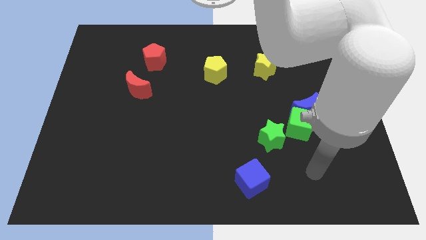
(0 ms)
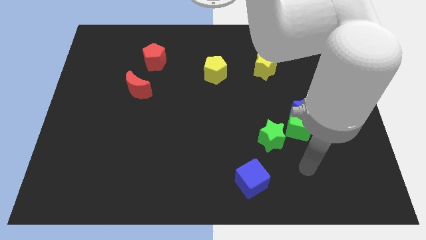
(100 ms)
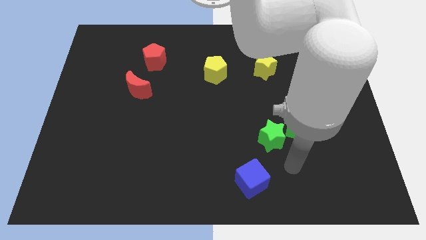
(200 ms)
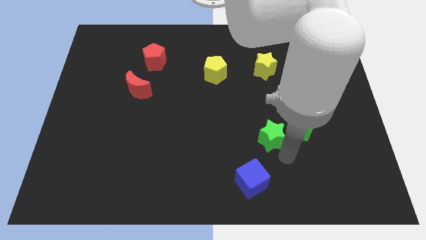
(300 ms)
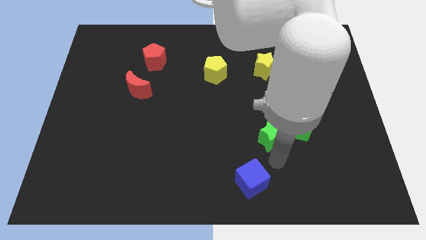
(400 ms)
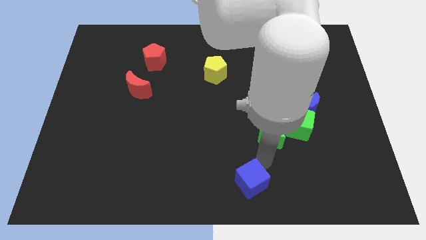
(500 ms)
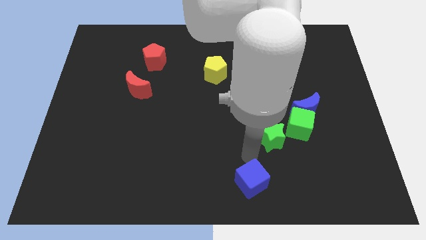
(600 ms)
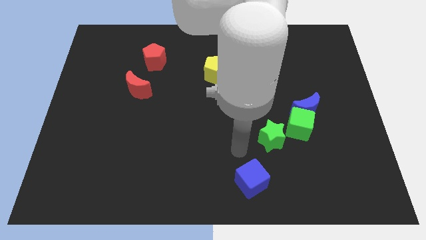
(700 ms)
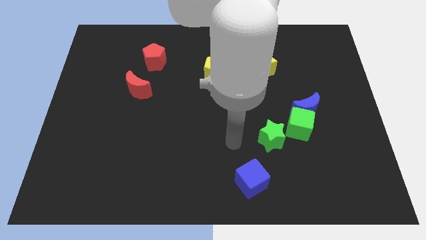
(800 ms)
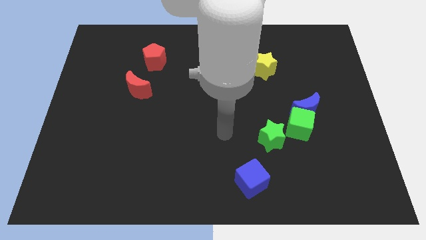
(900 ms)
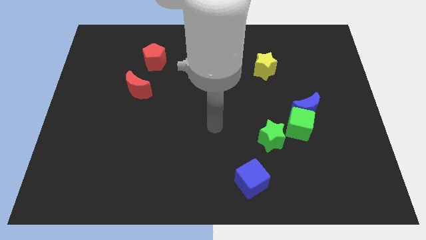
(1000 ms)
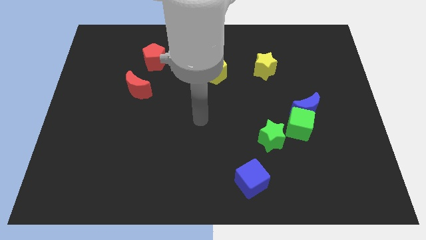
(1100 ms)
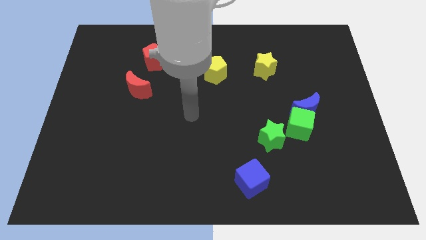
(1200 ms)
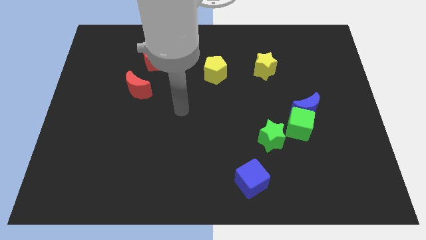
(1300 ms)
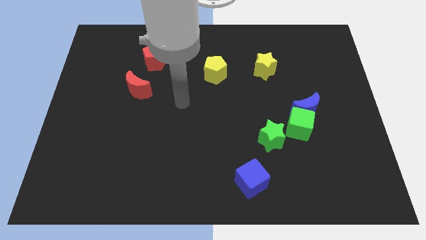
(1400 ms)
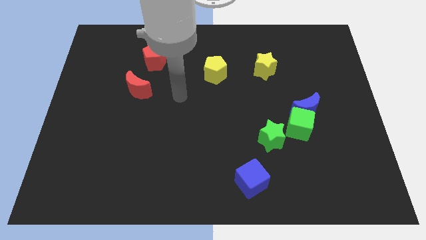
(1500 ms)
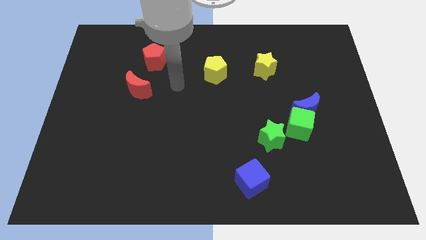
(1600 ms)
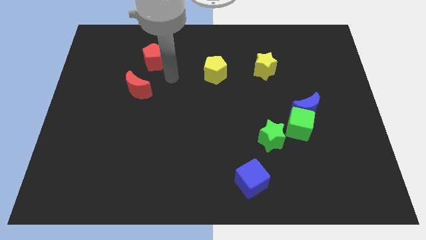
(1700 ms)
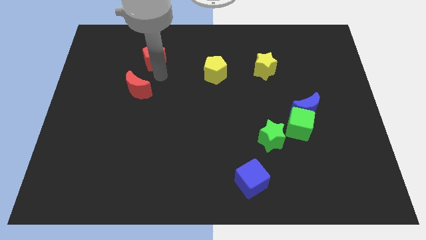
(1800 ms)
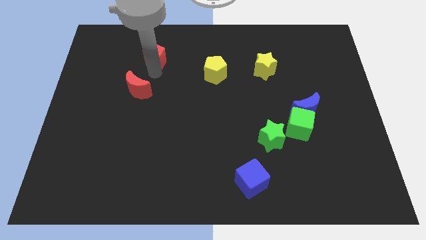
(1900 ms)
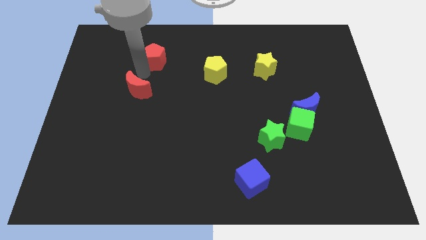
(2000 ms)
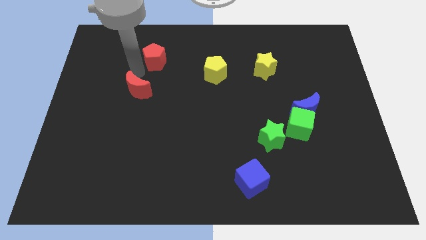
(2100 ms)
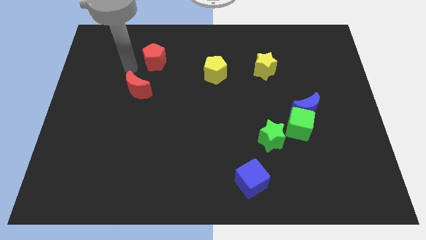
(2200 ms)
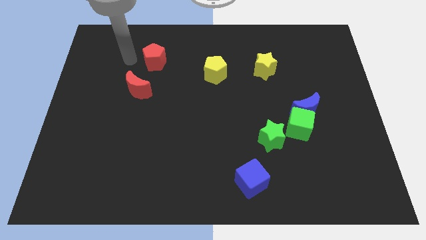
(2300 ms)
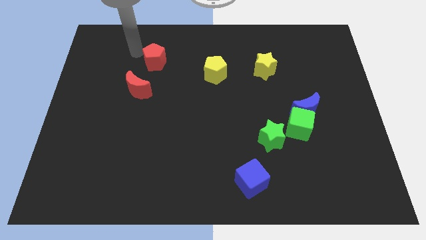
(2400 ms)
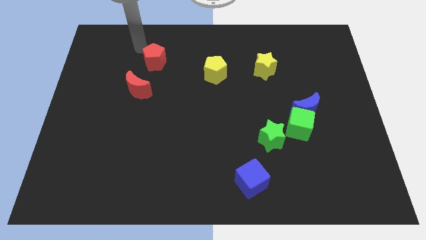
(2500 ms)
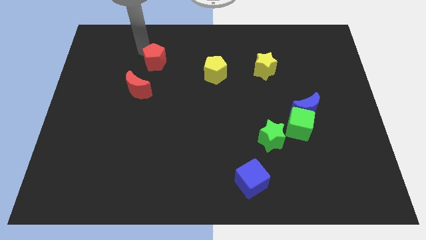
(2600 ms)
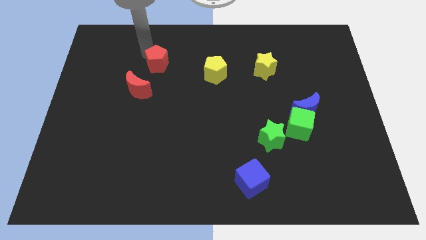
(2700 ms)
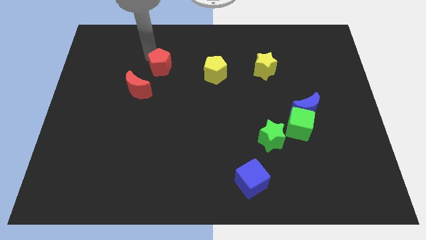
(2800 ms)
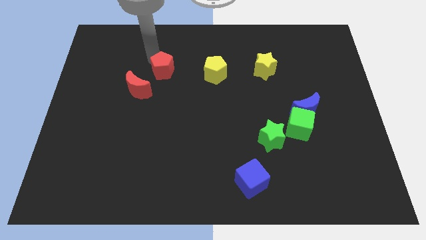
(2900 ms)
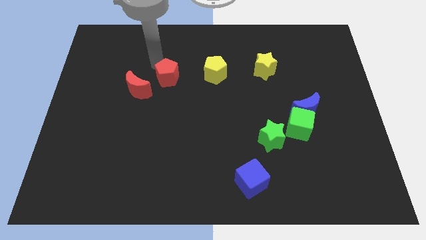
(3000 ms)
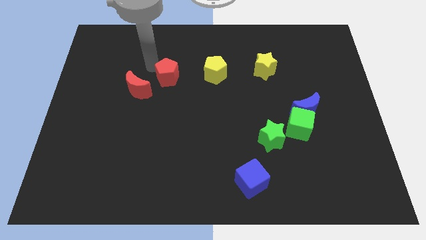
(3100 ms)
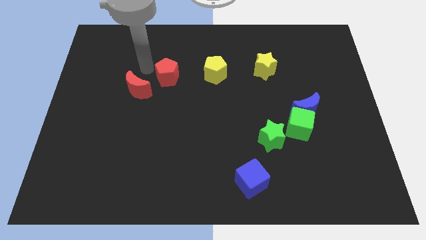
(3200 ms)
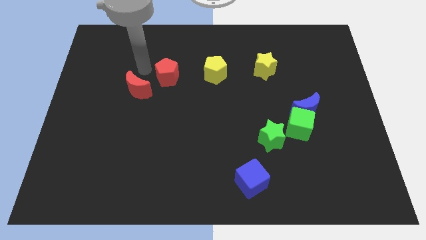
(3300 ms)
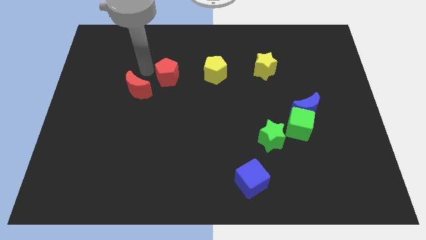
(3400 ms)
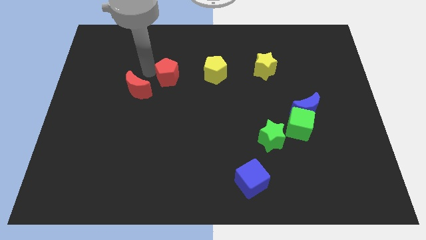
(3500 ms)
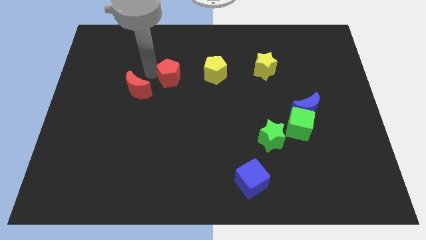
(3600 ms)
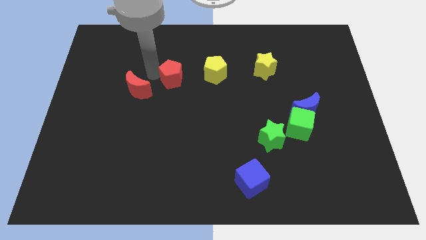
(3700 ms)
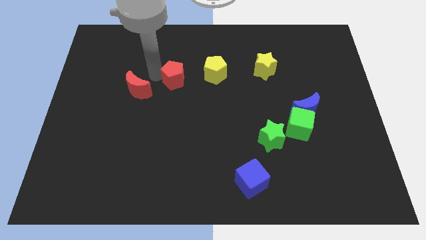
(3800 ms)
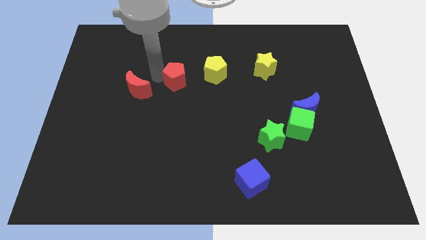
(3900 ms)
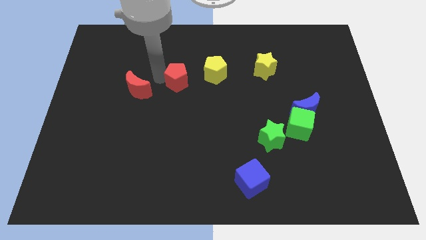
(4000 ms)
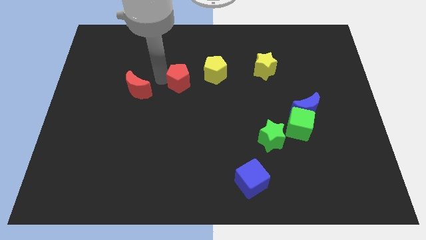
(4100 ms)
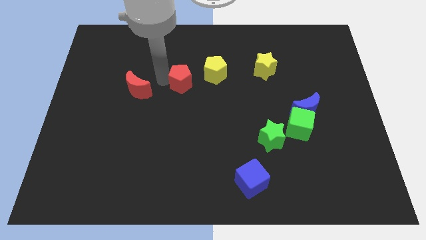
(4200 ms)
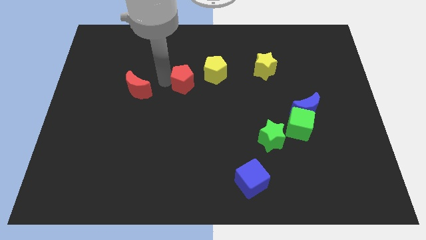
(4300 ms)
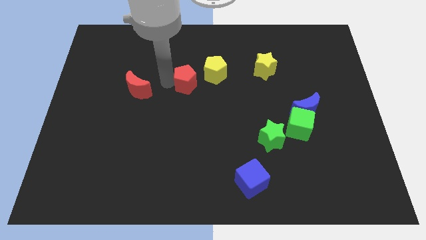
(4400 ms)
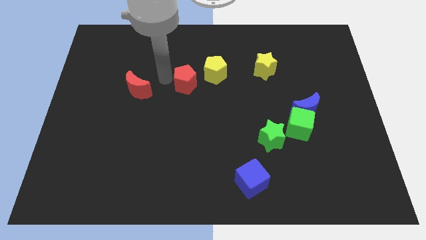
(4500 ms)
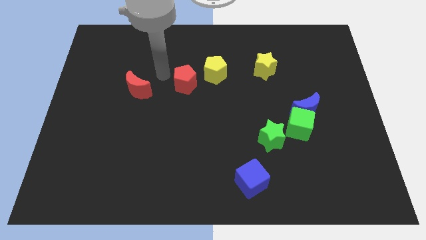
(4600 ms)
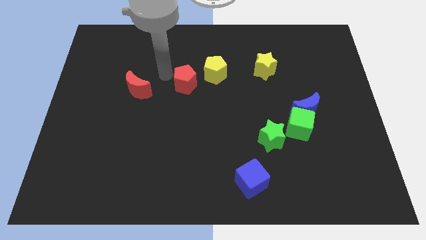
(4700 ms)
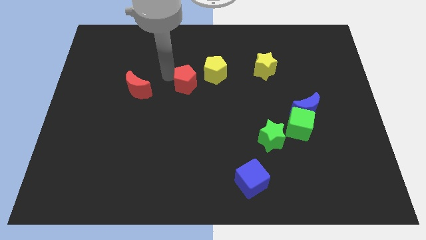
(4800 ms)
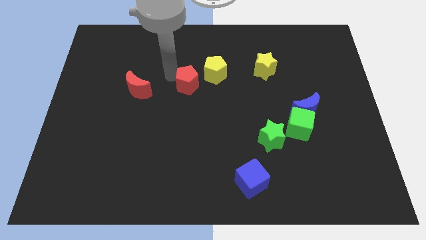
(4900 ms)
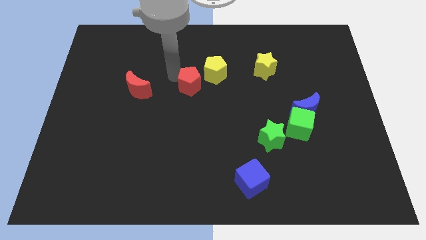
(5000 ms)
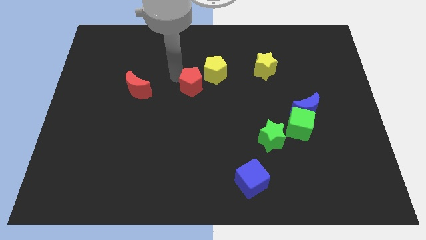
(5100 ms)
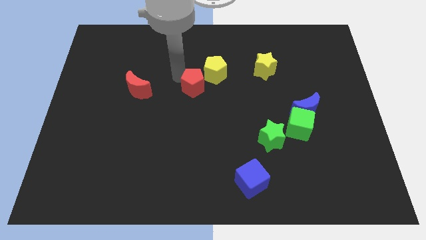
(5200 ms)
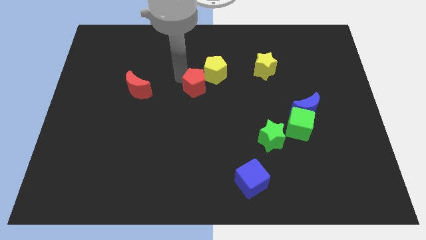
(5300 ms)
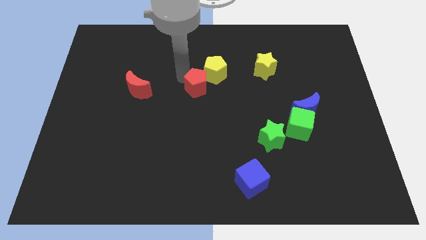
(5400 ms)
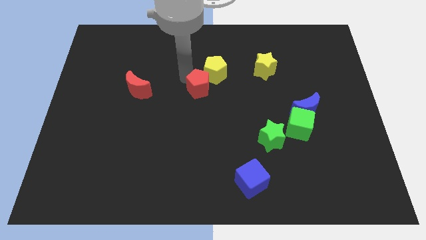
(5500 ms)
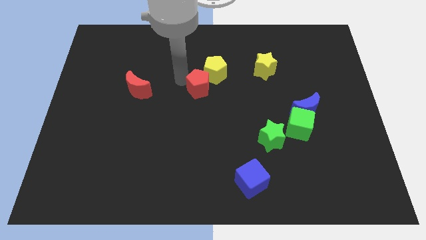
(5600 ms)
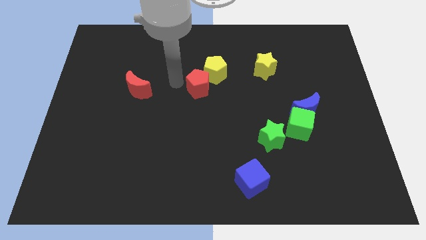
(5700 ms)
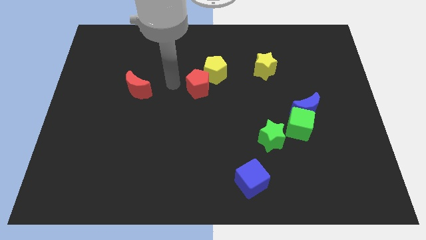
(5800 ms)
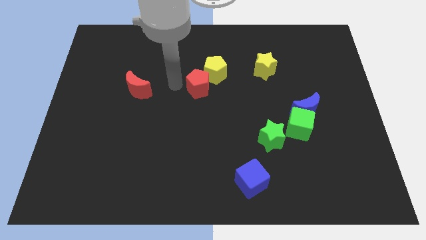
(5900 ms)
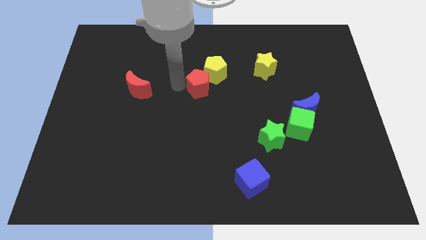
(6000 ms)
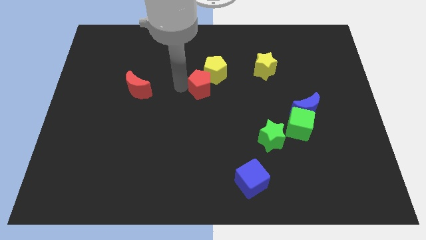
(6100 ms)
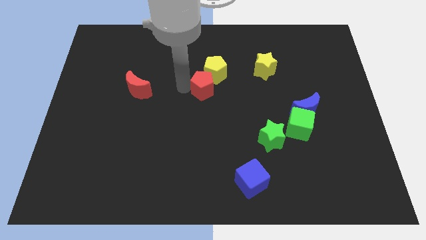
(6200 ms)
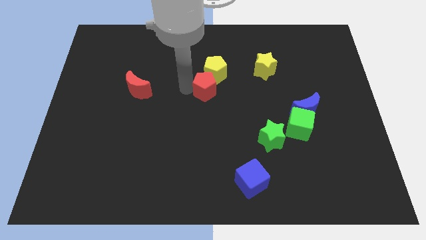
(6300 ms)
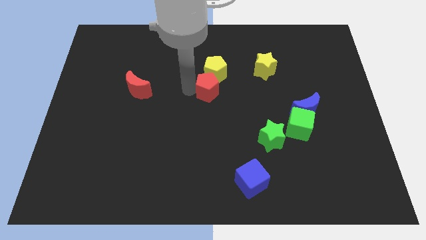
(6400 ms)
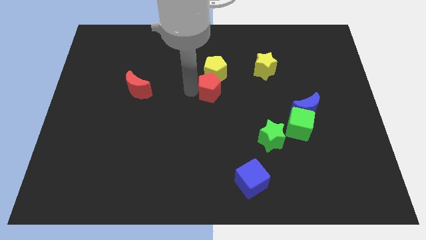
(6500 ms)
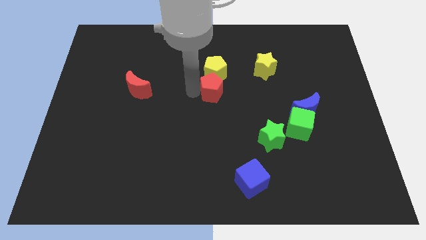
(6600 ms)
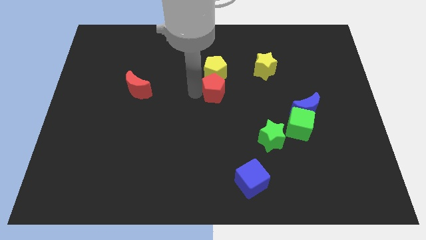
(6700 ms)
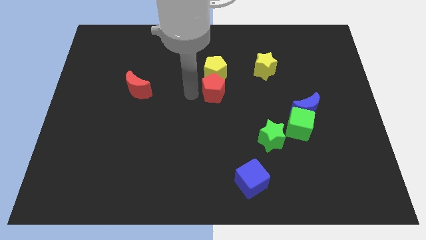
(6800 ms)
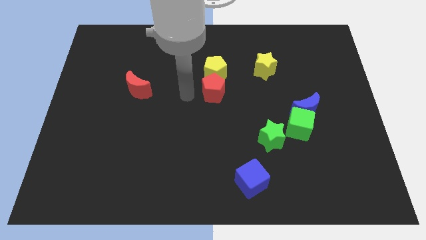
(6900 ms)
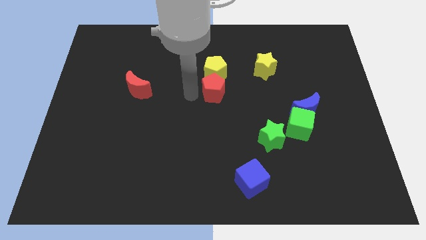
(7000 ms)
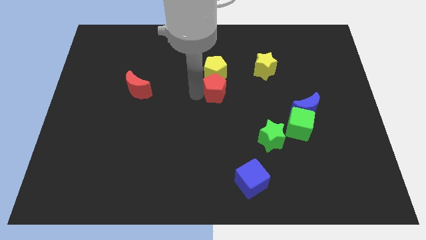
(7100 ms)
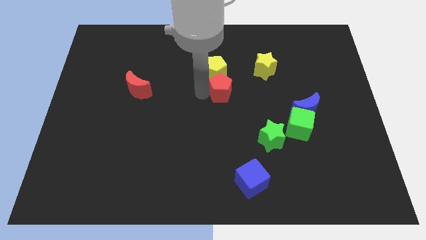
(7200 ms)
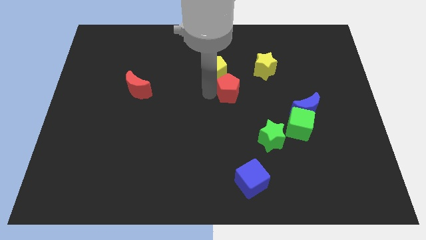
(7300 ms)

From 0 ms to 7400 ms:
put the red pentagon to the bottom left side of the yellow star
